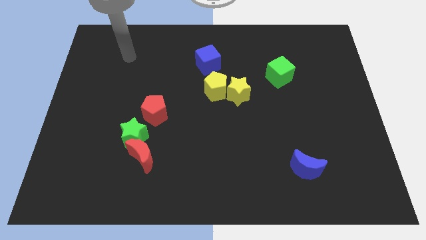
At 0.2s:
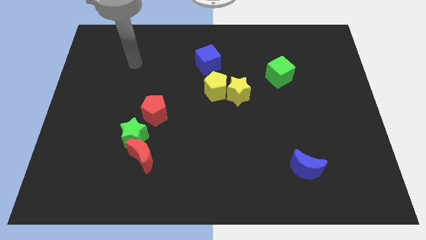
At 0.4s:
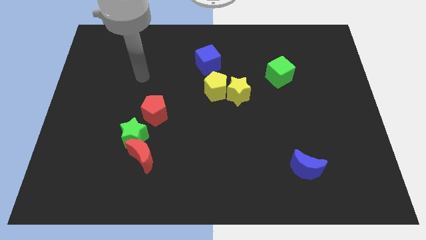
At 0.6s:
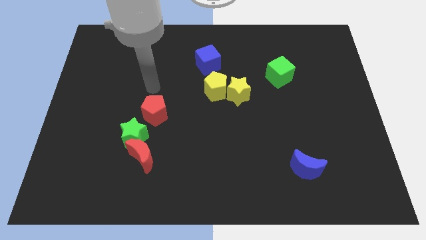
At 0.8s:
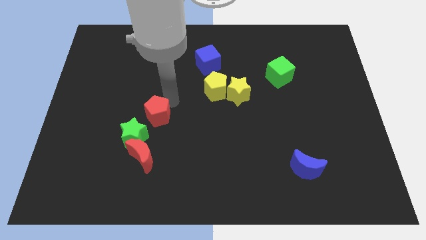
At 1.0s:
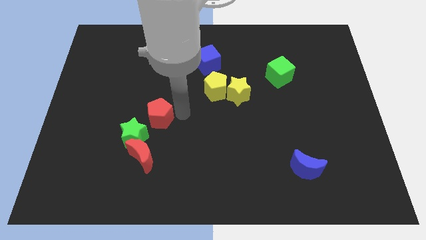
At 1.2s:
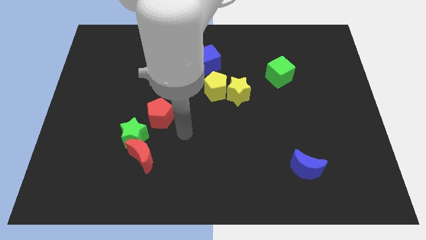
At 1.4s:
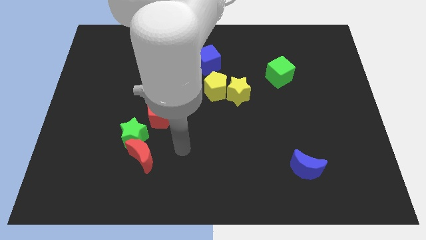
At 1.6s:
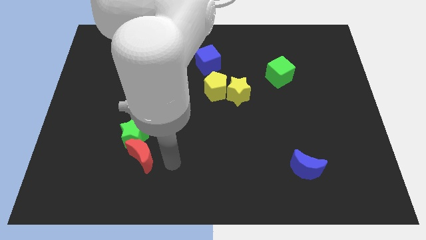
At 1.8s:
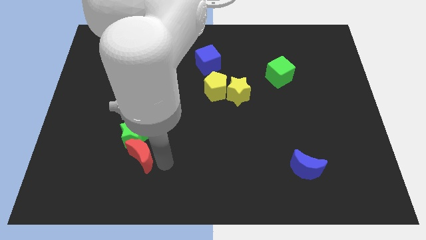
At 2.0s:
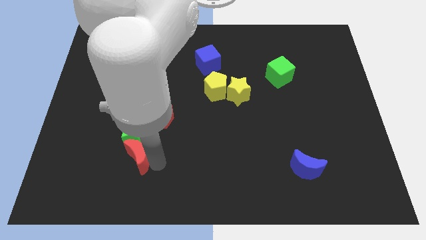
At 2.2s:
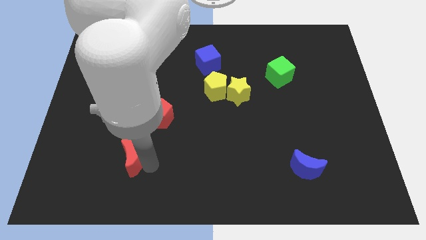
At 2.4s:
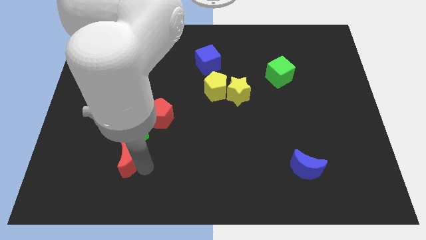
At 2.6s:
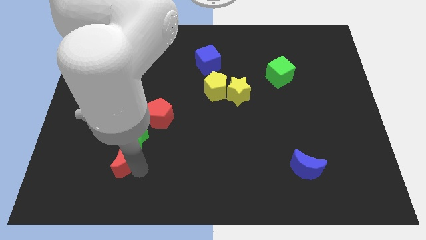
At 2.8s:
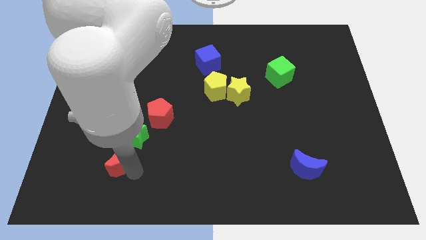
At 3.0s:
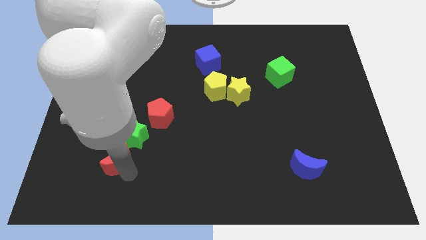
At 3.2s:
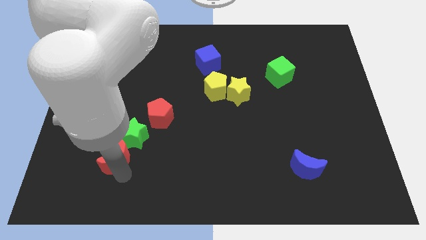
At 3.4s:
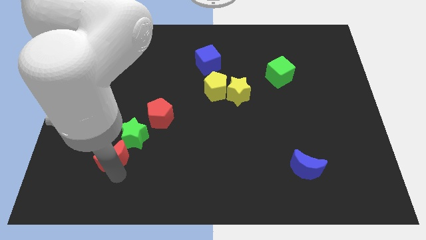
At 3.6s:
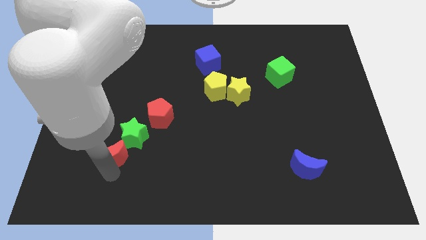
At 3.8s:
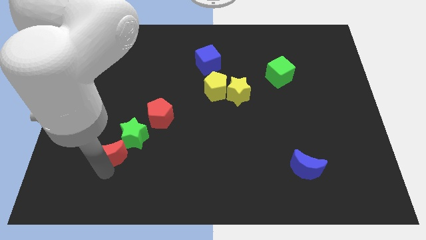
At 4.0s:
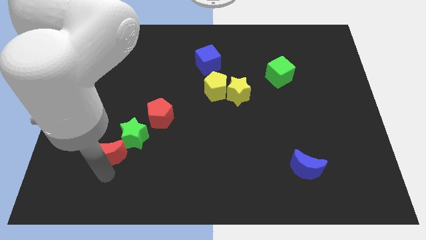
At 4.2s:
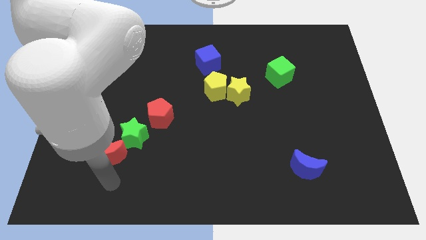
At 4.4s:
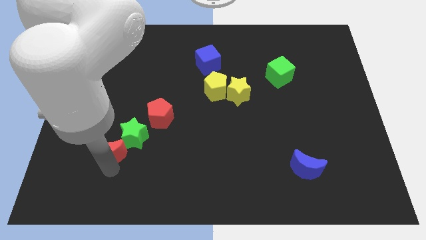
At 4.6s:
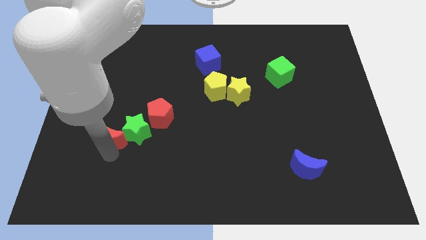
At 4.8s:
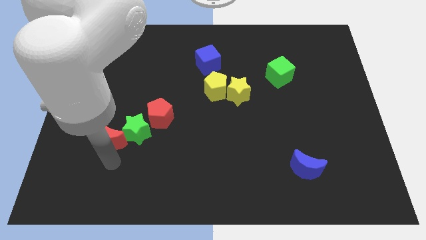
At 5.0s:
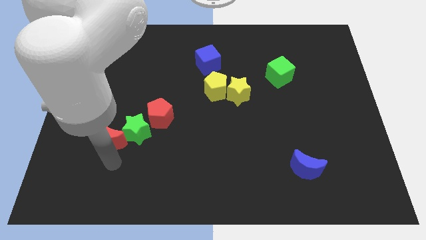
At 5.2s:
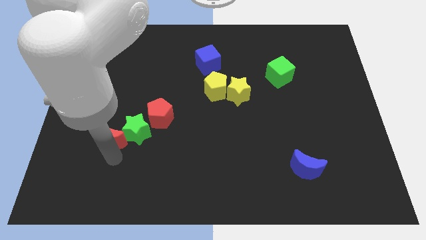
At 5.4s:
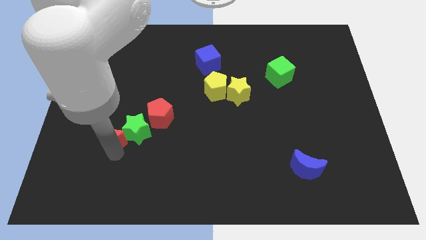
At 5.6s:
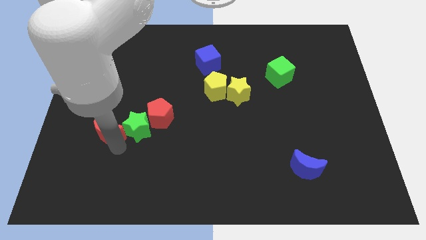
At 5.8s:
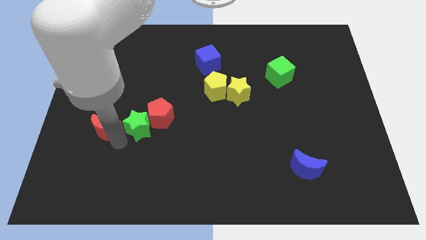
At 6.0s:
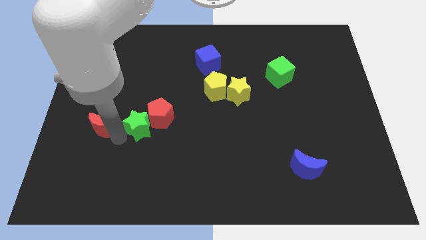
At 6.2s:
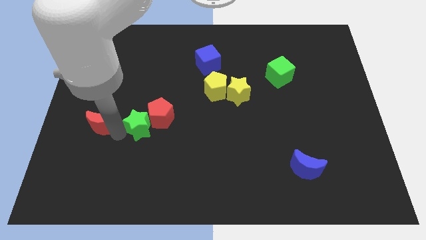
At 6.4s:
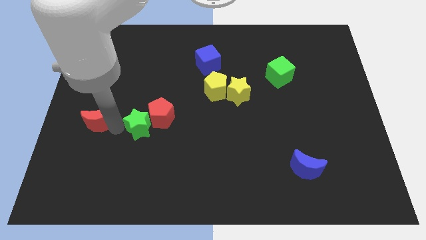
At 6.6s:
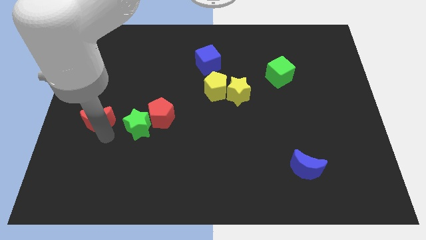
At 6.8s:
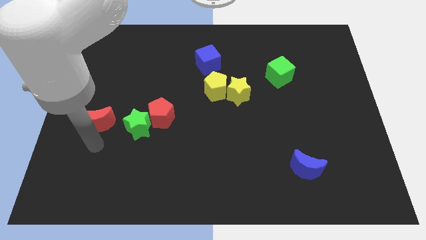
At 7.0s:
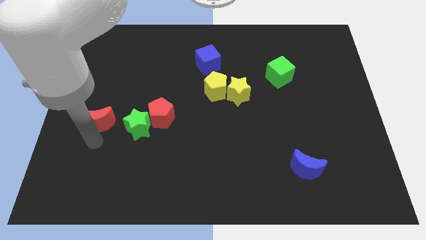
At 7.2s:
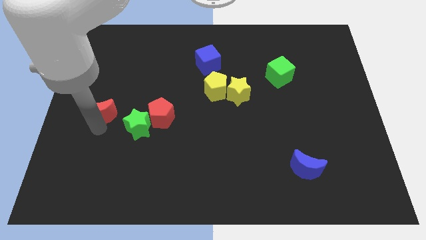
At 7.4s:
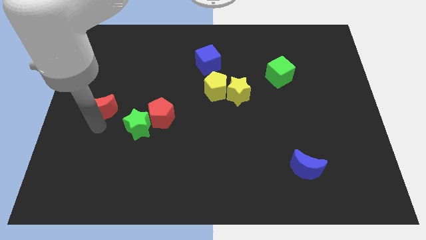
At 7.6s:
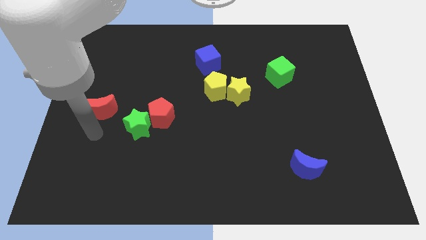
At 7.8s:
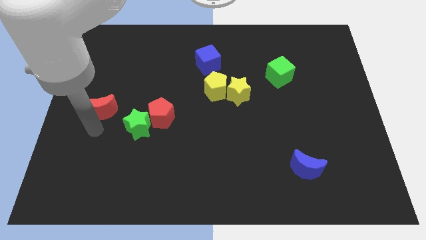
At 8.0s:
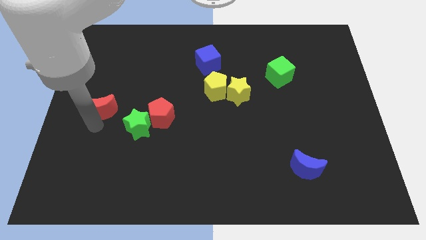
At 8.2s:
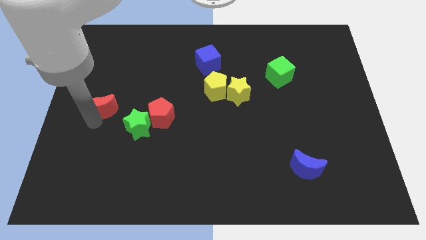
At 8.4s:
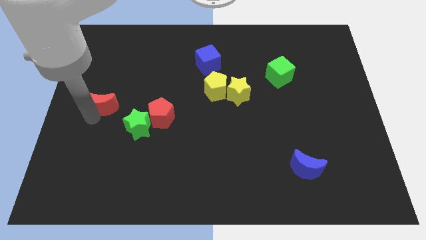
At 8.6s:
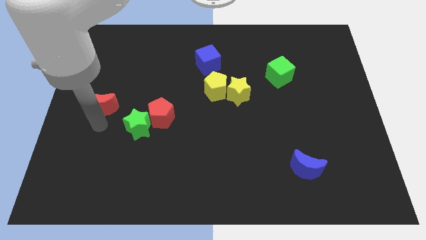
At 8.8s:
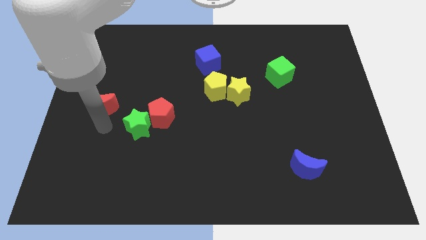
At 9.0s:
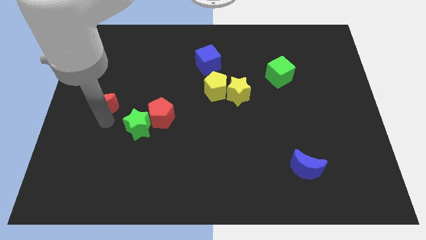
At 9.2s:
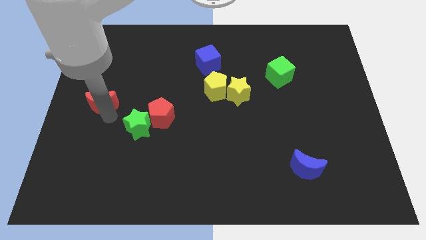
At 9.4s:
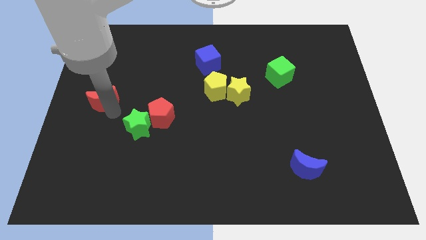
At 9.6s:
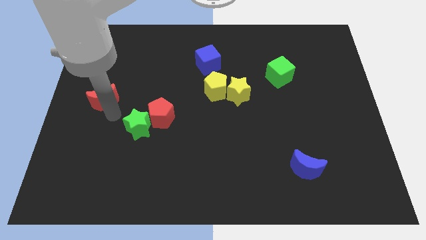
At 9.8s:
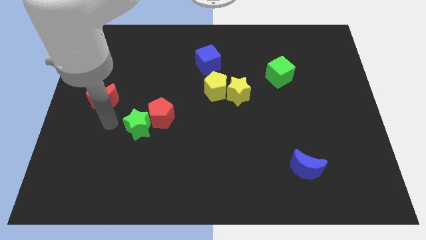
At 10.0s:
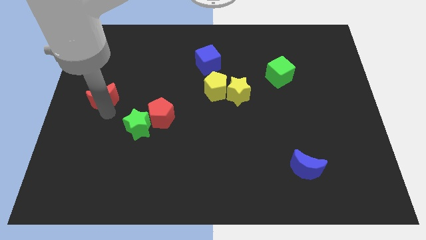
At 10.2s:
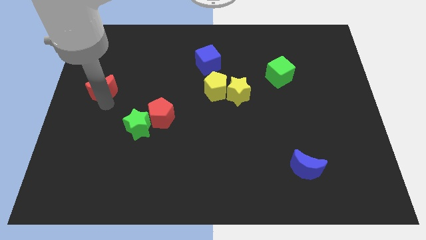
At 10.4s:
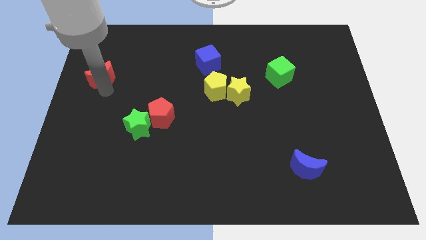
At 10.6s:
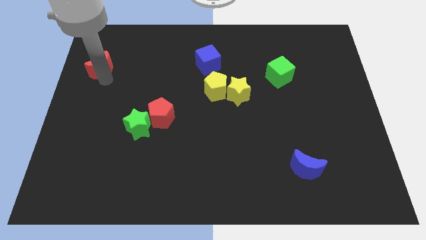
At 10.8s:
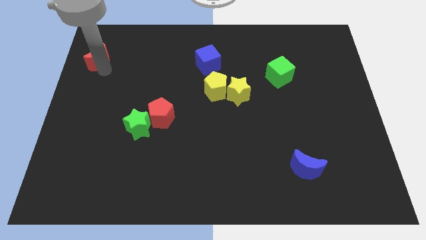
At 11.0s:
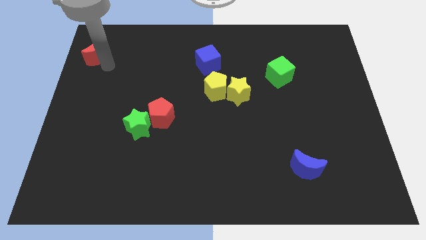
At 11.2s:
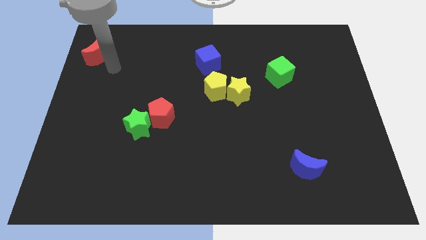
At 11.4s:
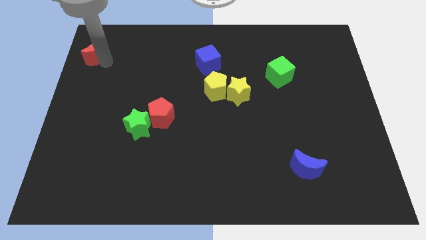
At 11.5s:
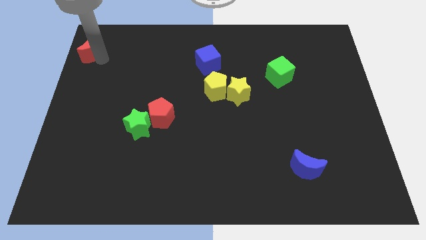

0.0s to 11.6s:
move the red moon to the top left of the board

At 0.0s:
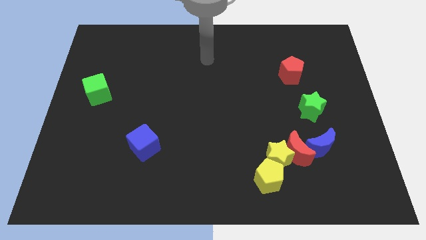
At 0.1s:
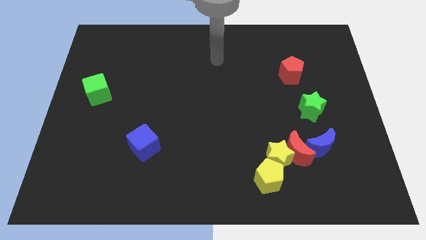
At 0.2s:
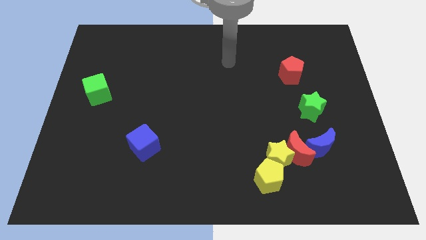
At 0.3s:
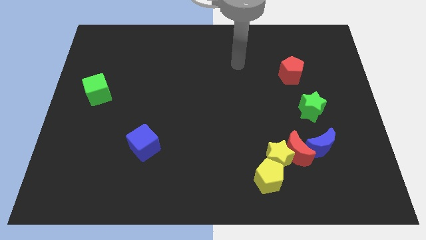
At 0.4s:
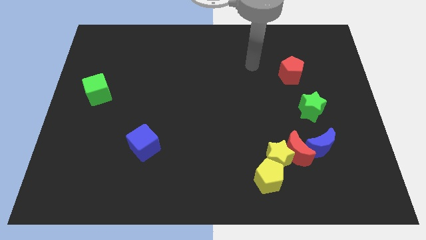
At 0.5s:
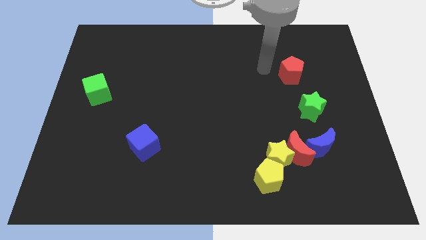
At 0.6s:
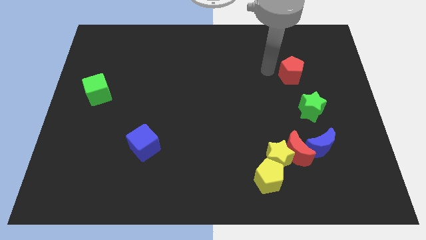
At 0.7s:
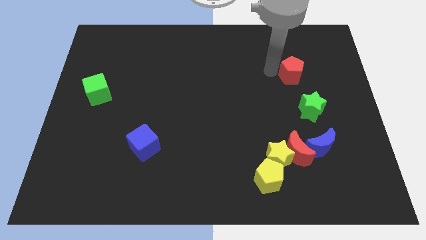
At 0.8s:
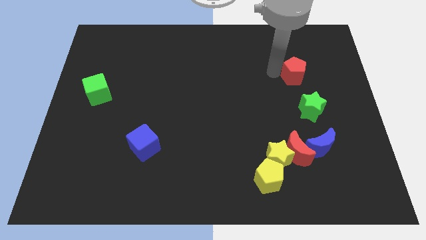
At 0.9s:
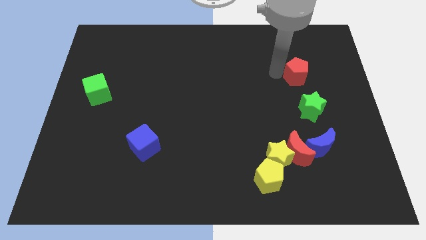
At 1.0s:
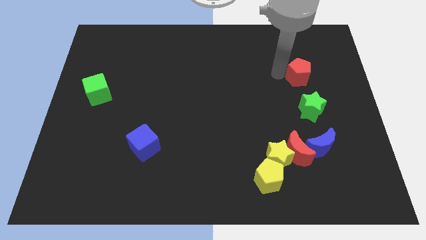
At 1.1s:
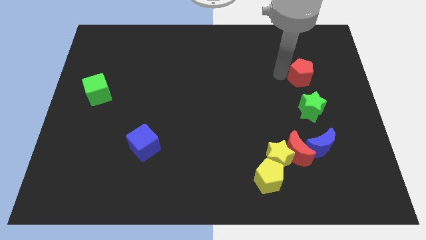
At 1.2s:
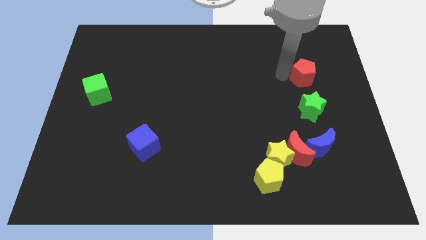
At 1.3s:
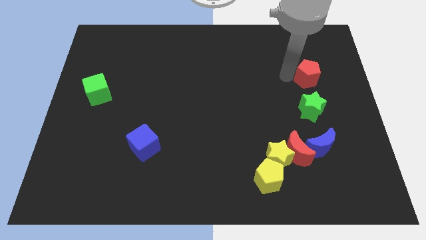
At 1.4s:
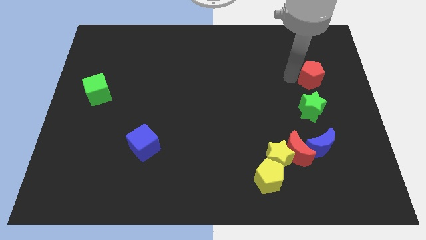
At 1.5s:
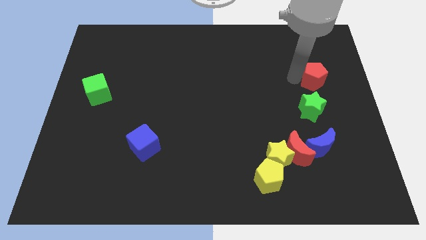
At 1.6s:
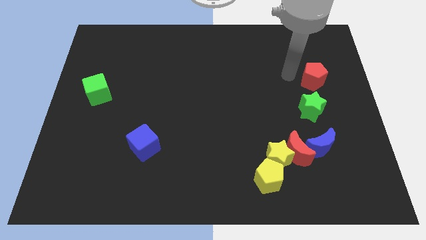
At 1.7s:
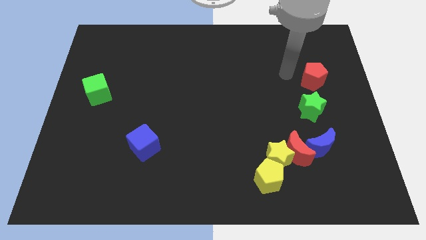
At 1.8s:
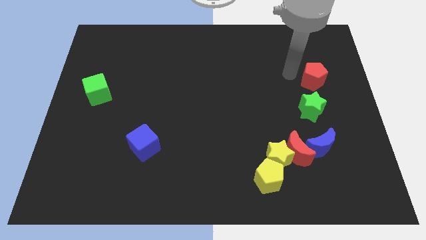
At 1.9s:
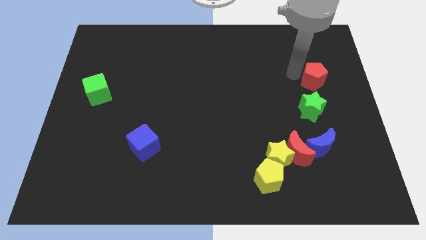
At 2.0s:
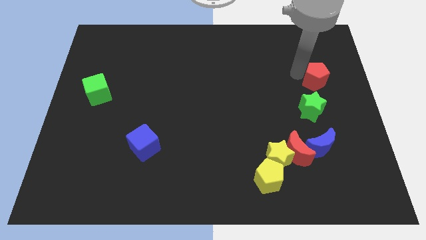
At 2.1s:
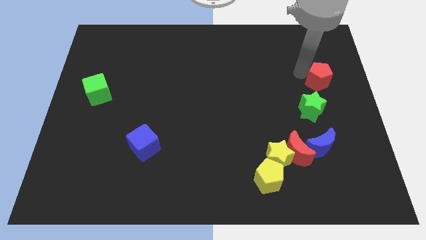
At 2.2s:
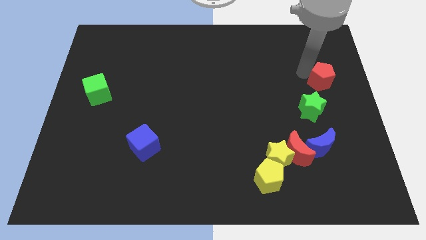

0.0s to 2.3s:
slide the red pentagon to the right side of the board
